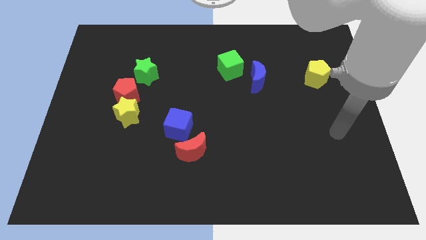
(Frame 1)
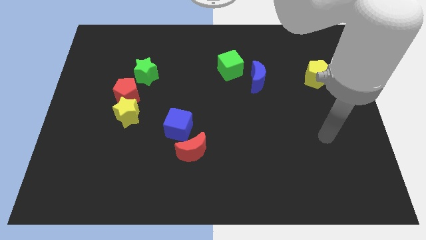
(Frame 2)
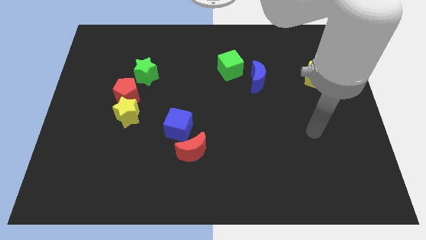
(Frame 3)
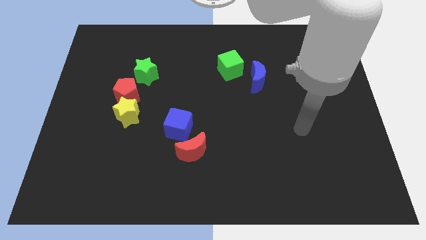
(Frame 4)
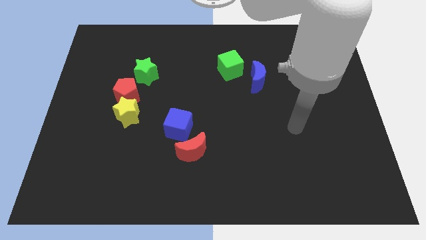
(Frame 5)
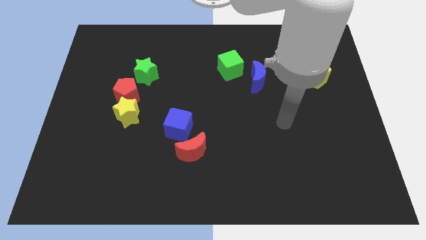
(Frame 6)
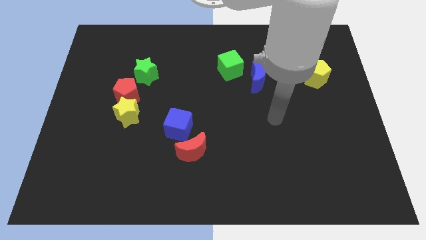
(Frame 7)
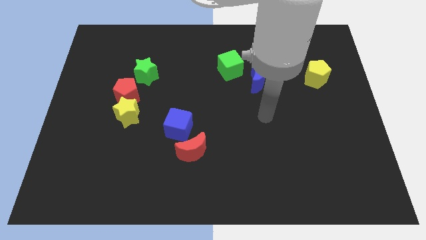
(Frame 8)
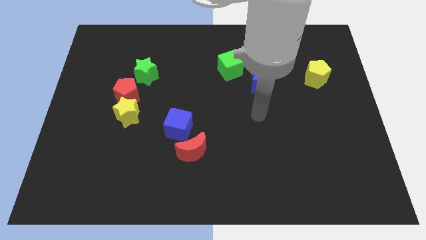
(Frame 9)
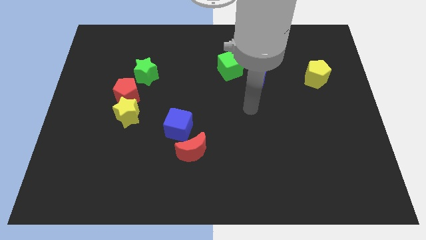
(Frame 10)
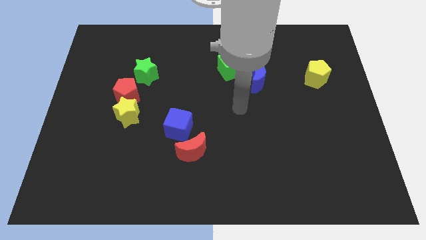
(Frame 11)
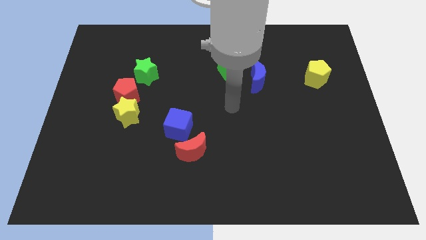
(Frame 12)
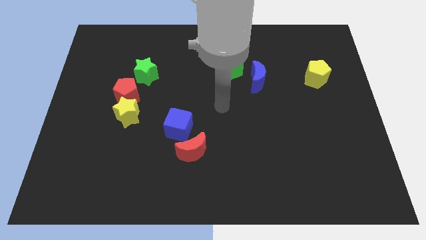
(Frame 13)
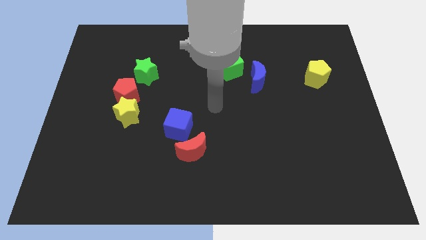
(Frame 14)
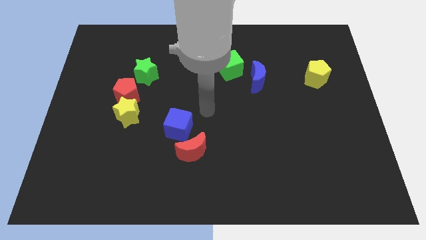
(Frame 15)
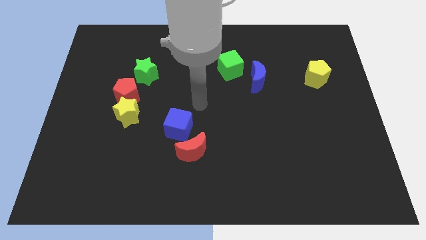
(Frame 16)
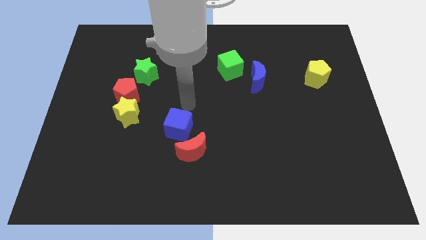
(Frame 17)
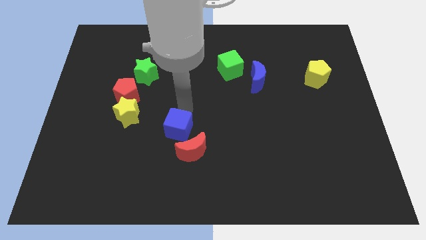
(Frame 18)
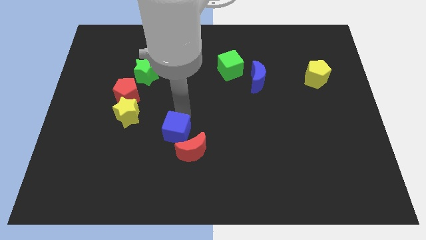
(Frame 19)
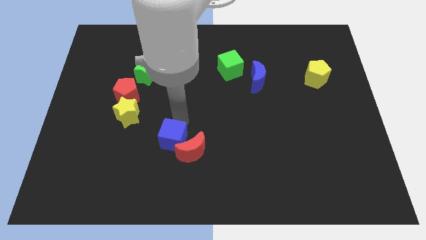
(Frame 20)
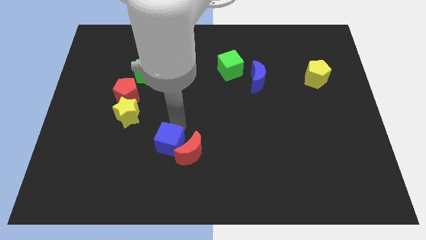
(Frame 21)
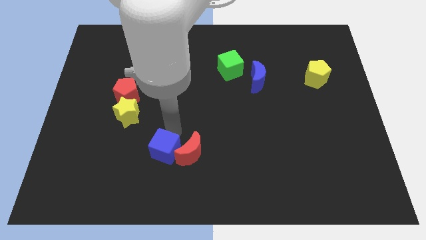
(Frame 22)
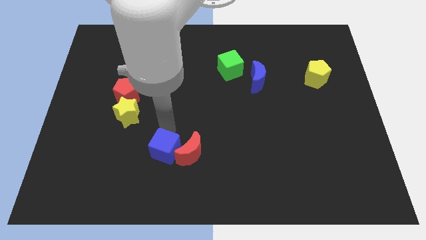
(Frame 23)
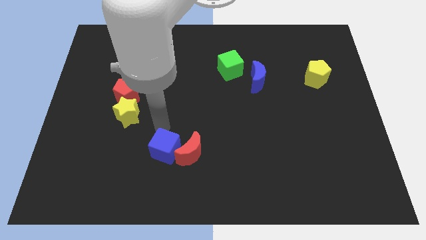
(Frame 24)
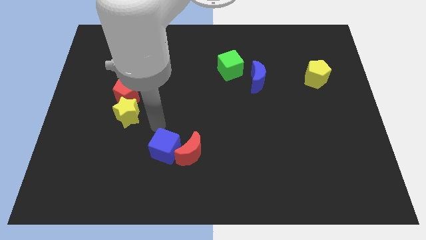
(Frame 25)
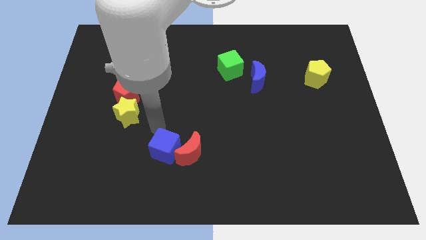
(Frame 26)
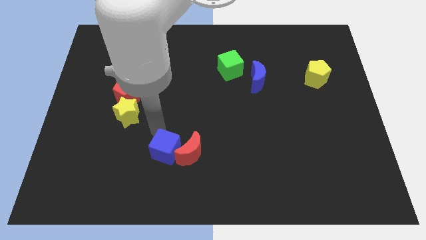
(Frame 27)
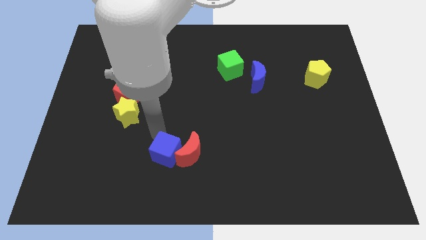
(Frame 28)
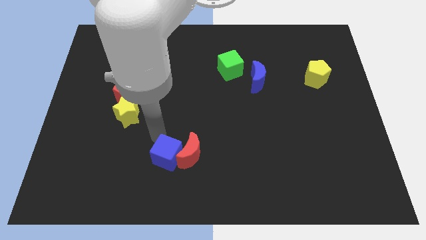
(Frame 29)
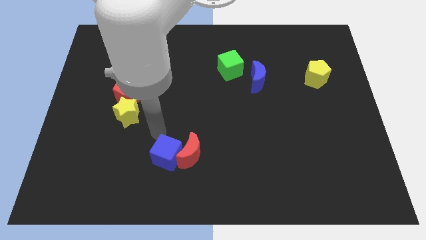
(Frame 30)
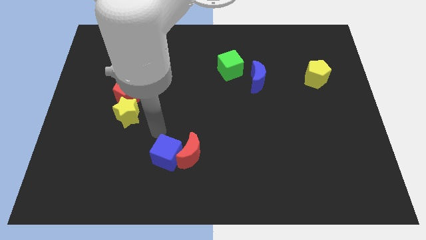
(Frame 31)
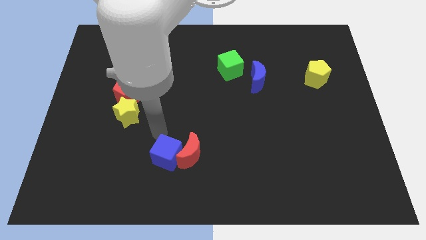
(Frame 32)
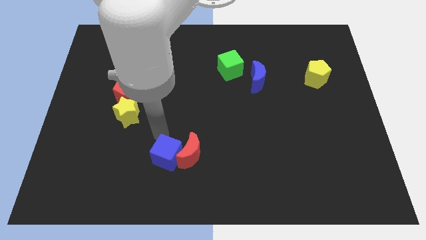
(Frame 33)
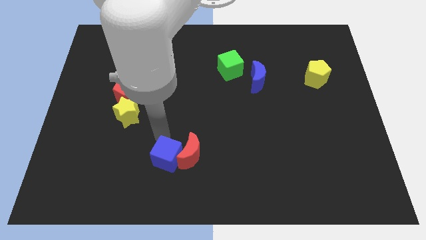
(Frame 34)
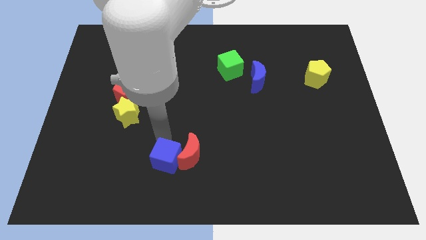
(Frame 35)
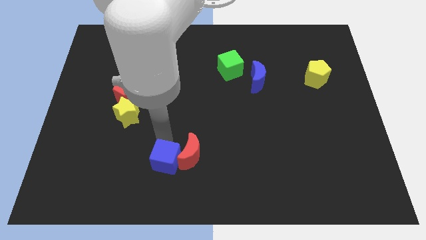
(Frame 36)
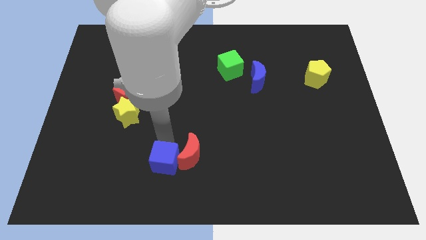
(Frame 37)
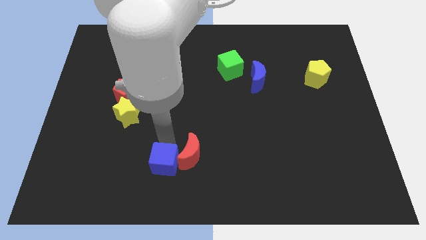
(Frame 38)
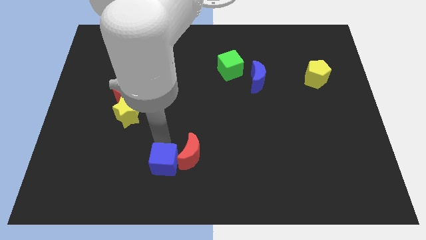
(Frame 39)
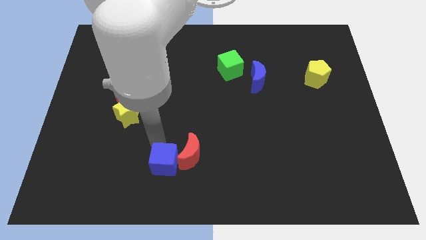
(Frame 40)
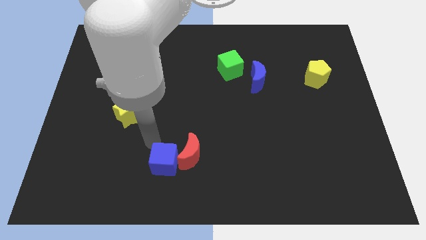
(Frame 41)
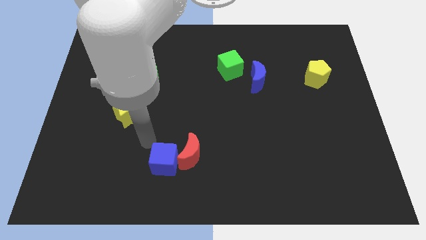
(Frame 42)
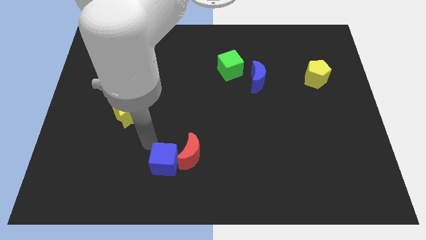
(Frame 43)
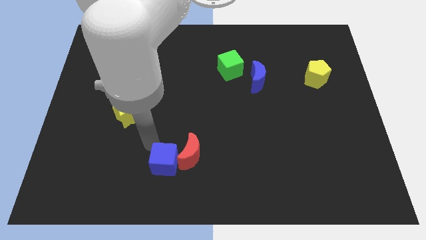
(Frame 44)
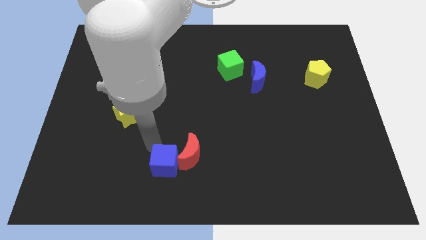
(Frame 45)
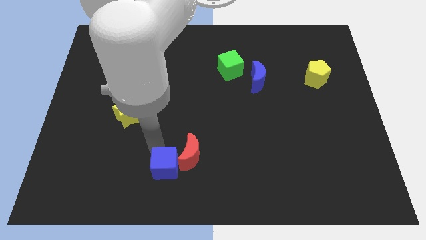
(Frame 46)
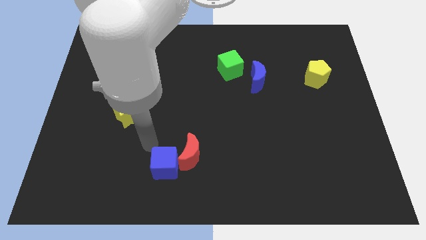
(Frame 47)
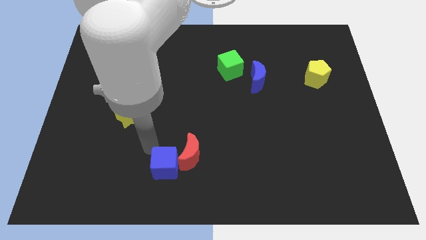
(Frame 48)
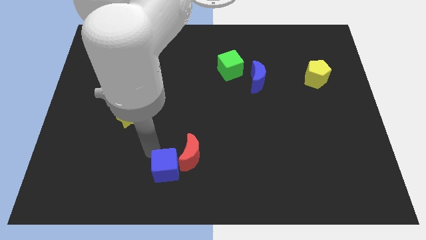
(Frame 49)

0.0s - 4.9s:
slide the blue cube to the bottom side

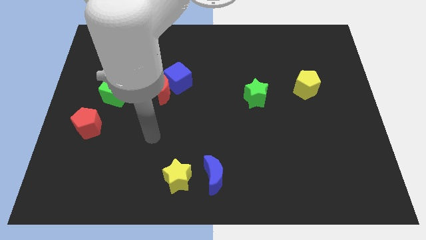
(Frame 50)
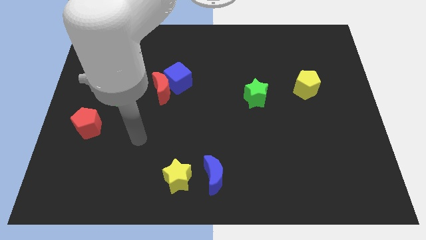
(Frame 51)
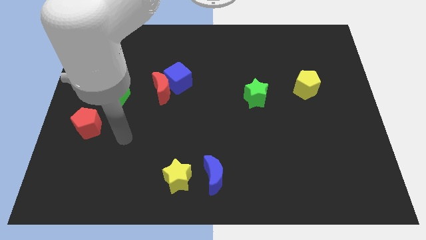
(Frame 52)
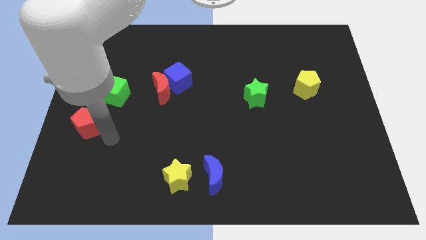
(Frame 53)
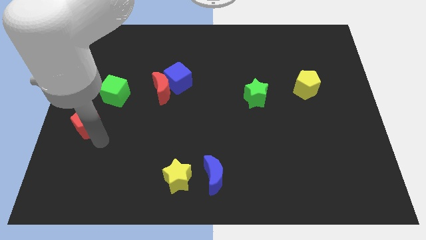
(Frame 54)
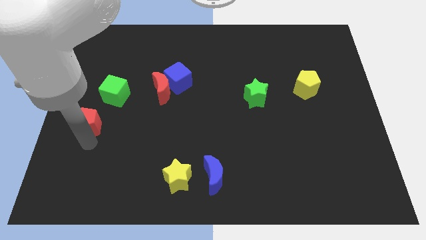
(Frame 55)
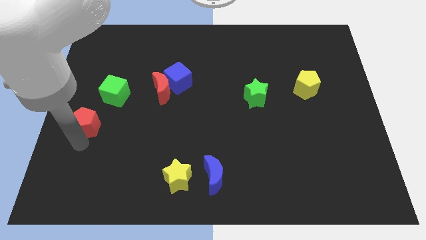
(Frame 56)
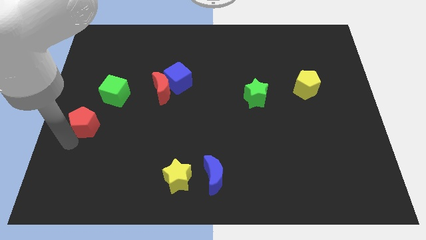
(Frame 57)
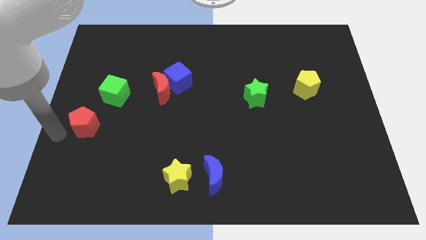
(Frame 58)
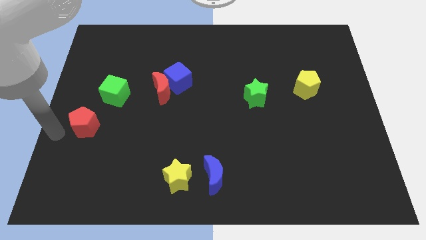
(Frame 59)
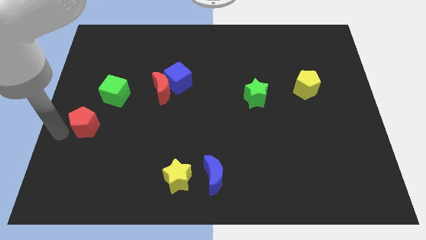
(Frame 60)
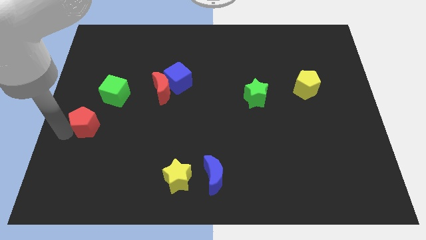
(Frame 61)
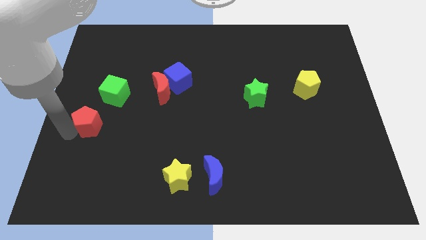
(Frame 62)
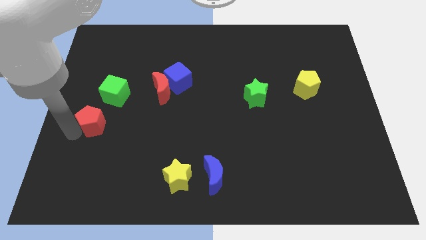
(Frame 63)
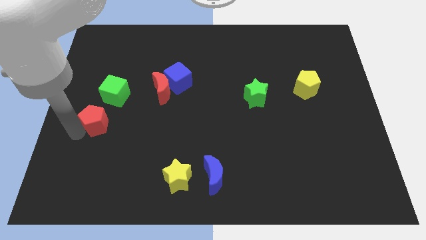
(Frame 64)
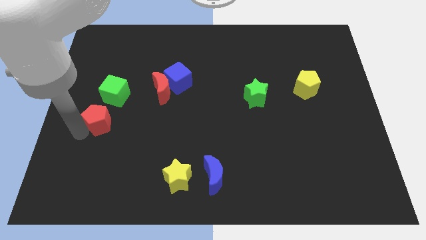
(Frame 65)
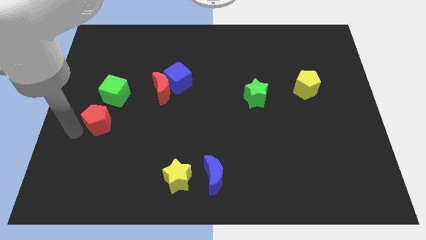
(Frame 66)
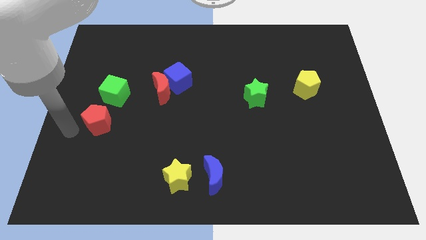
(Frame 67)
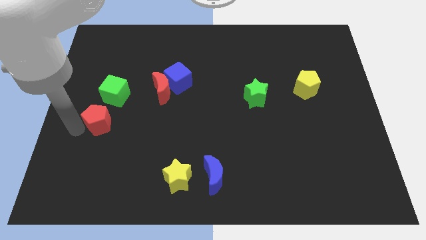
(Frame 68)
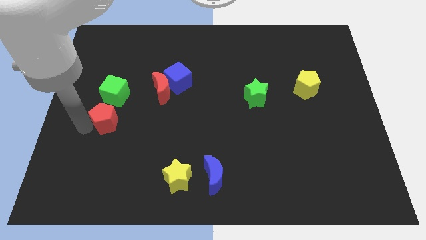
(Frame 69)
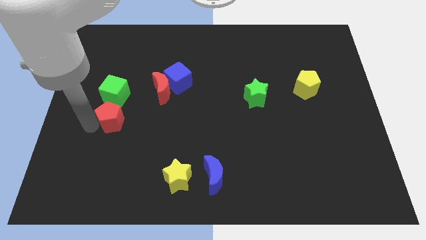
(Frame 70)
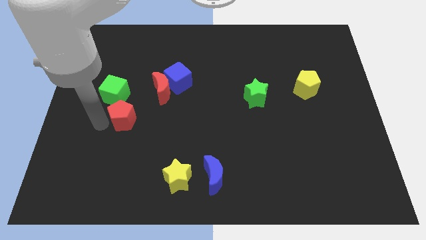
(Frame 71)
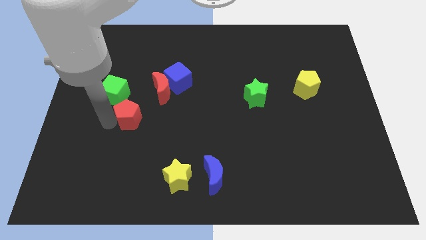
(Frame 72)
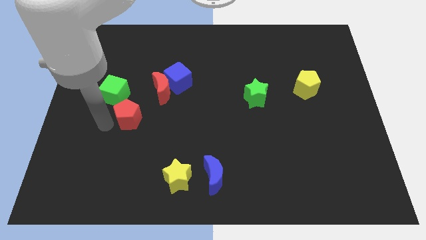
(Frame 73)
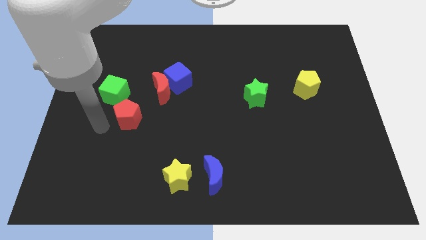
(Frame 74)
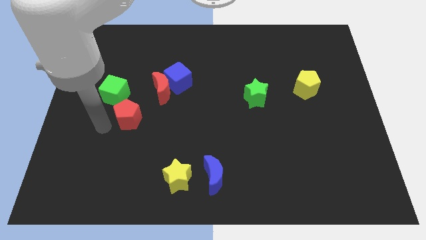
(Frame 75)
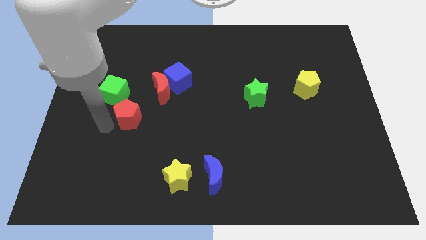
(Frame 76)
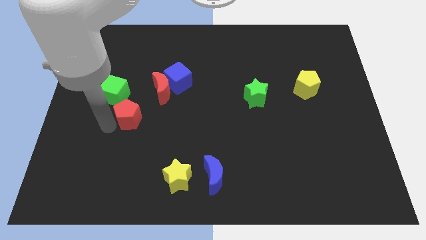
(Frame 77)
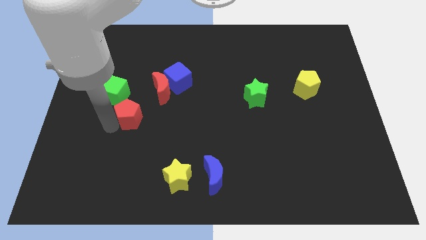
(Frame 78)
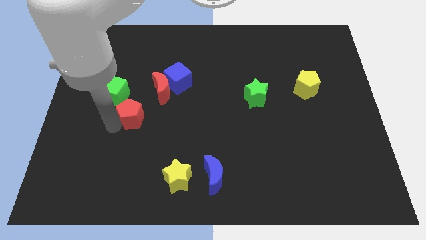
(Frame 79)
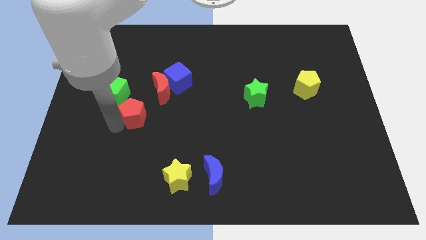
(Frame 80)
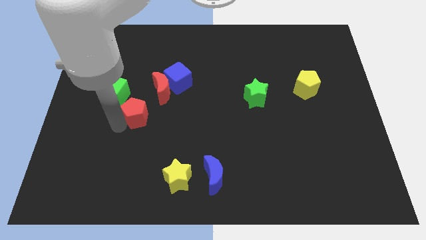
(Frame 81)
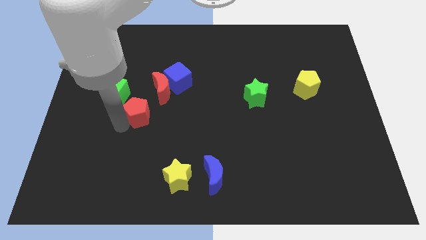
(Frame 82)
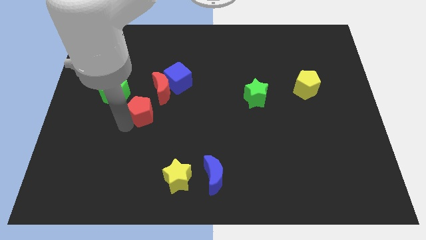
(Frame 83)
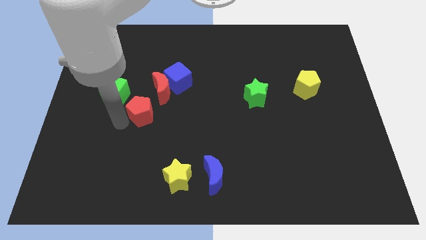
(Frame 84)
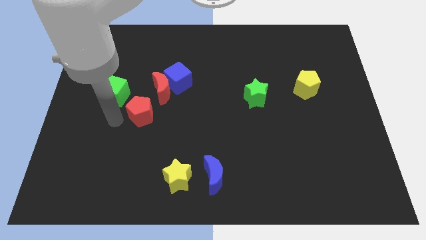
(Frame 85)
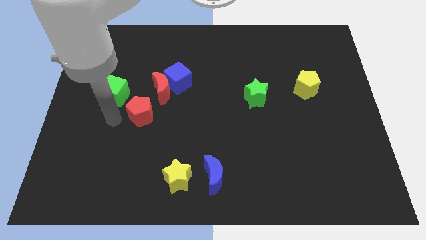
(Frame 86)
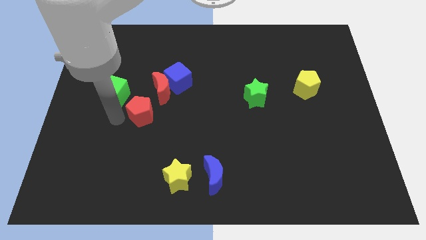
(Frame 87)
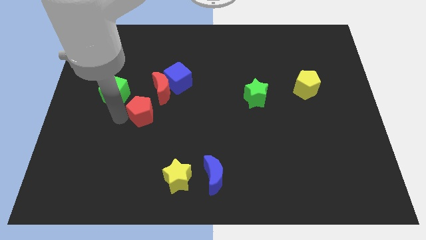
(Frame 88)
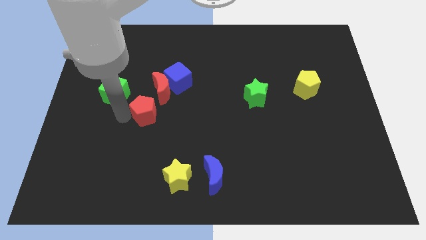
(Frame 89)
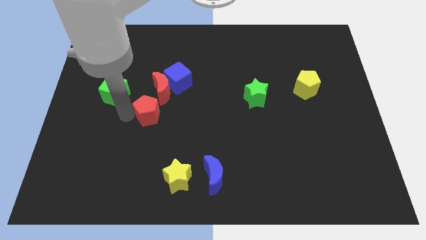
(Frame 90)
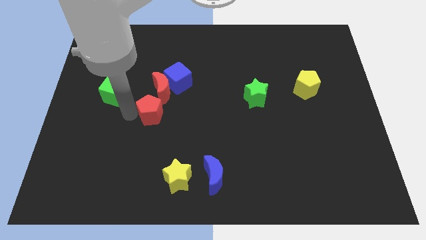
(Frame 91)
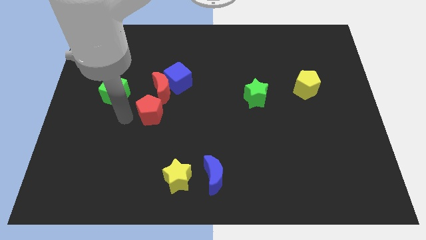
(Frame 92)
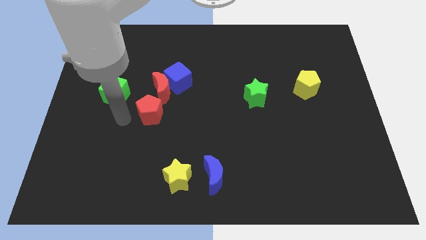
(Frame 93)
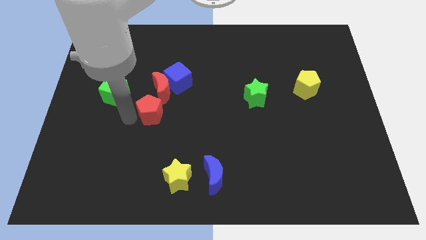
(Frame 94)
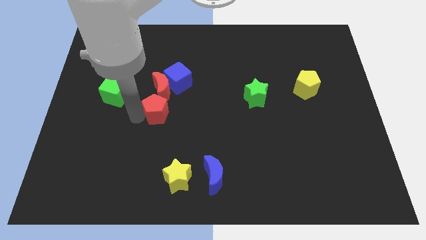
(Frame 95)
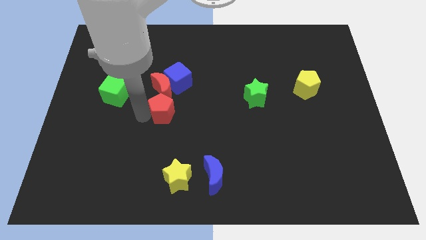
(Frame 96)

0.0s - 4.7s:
put the red pentagon to the middle
